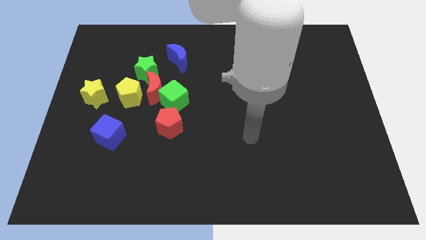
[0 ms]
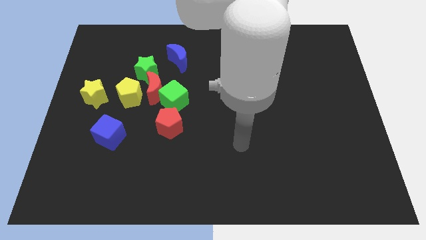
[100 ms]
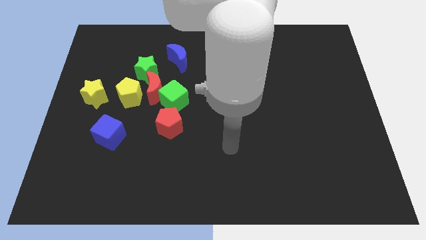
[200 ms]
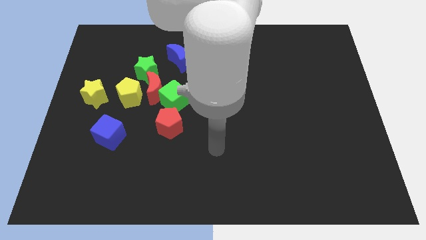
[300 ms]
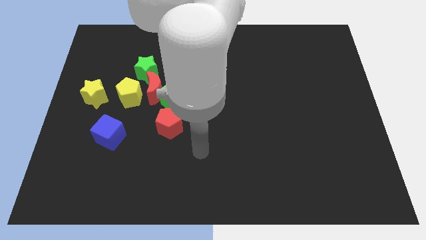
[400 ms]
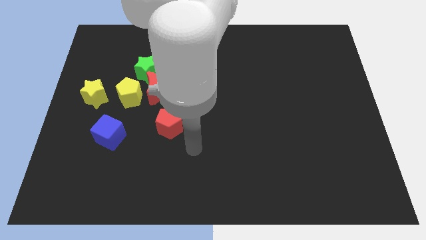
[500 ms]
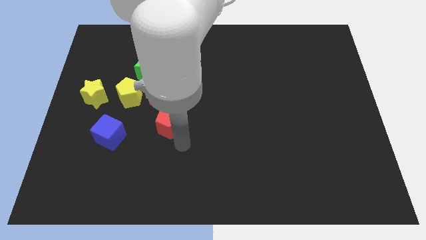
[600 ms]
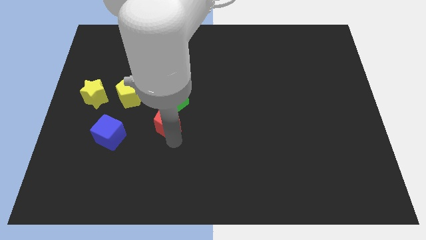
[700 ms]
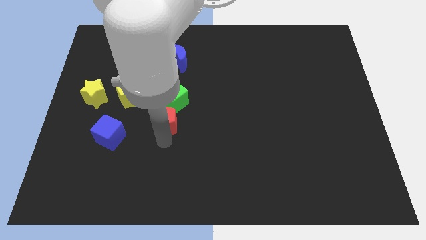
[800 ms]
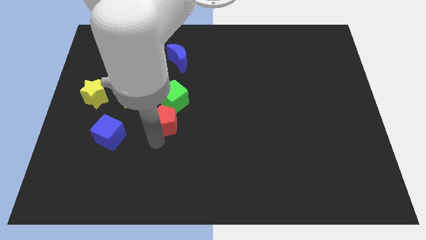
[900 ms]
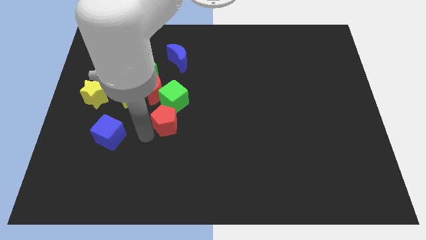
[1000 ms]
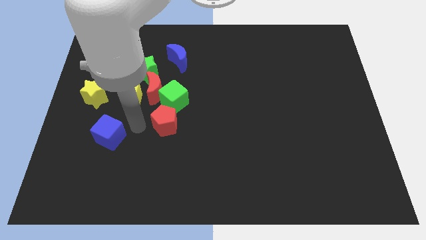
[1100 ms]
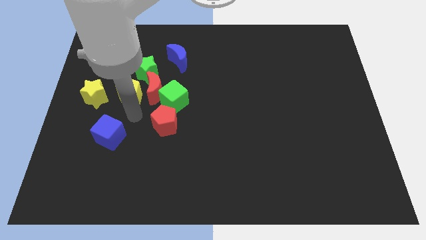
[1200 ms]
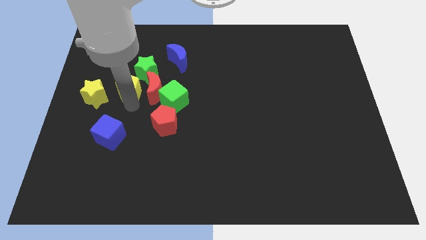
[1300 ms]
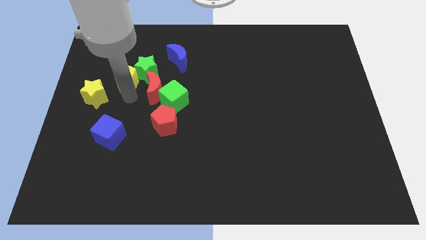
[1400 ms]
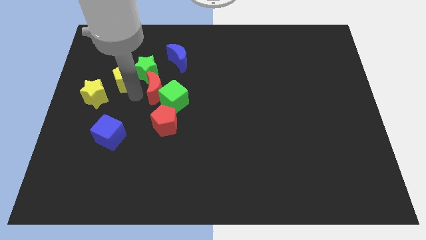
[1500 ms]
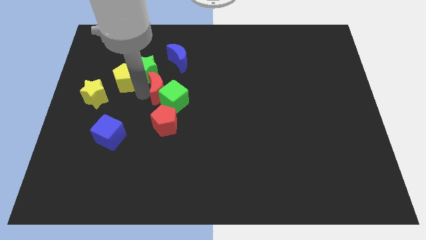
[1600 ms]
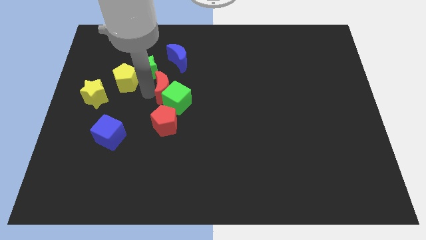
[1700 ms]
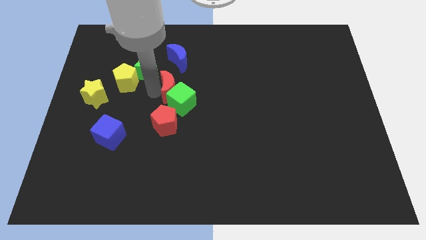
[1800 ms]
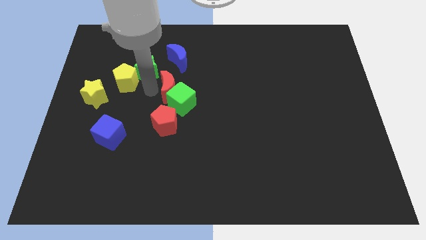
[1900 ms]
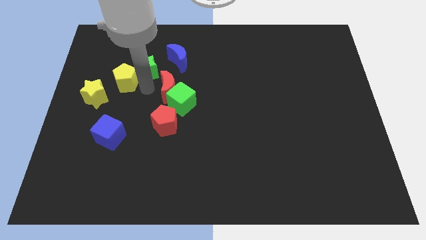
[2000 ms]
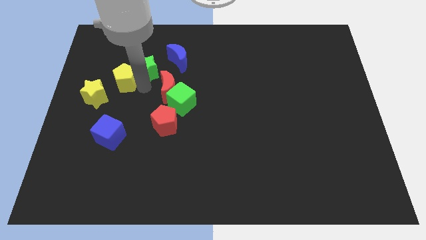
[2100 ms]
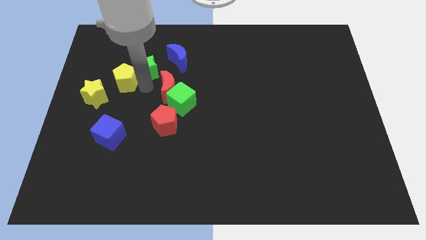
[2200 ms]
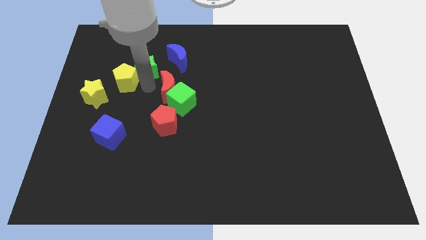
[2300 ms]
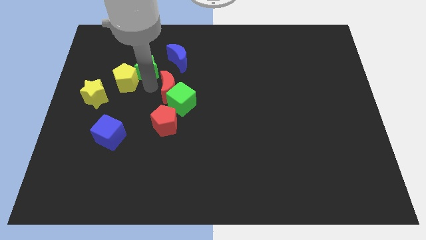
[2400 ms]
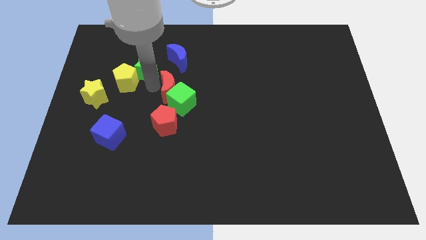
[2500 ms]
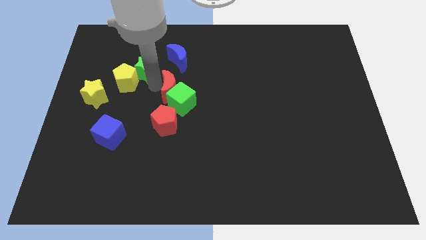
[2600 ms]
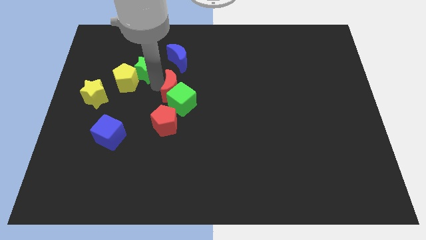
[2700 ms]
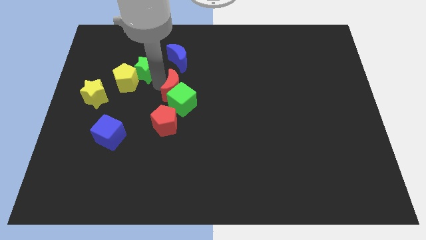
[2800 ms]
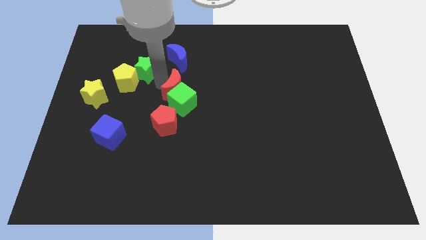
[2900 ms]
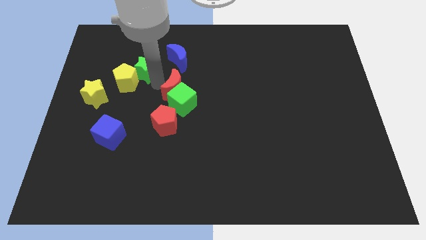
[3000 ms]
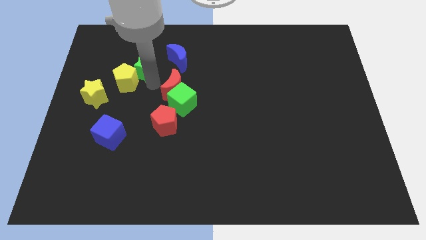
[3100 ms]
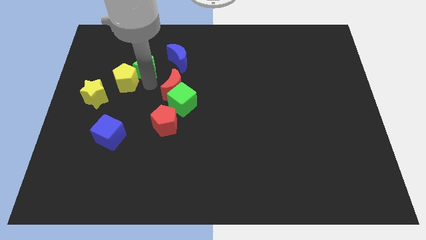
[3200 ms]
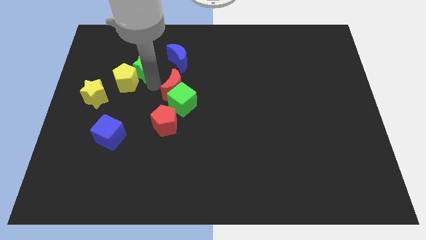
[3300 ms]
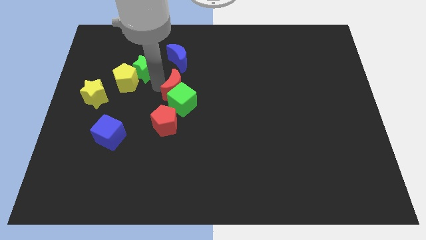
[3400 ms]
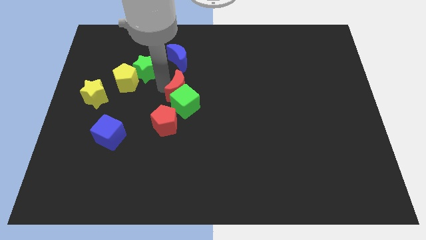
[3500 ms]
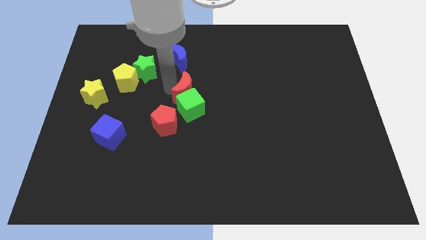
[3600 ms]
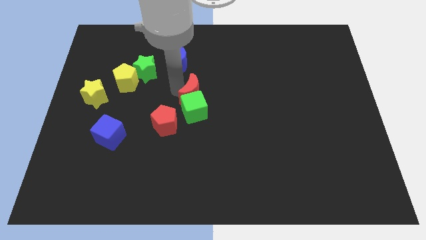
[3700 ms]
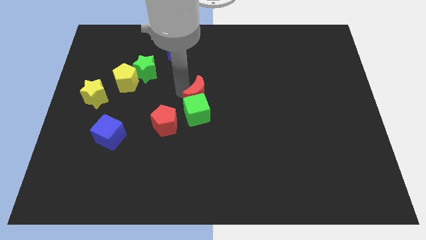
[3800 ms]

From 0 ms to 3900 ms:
move the red moon away from the group of blocks

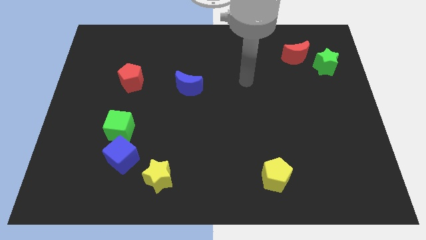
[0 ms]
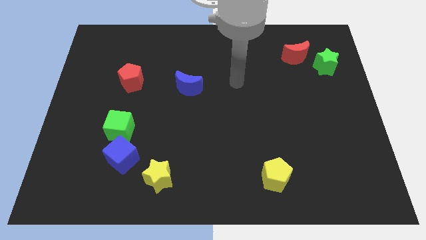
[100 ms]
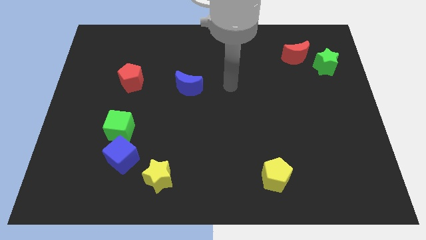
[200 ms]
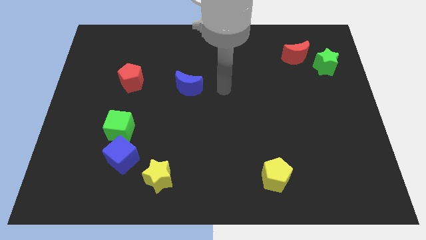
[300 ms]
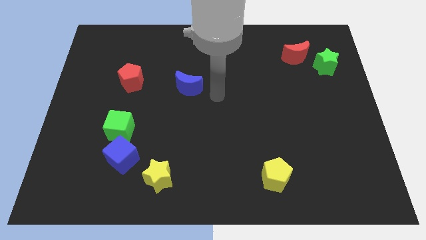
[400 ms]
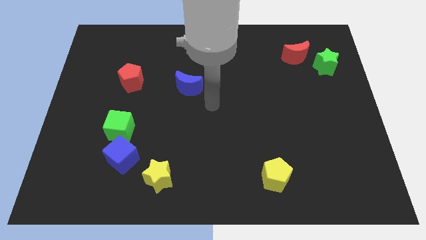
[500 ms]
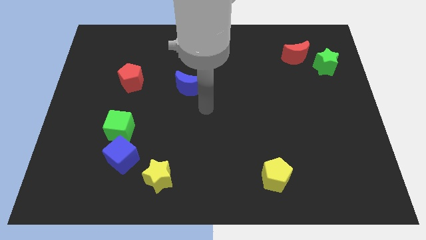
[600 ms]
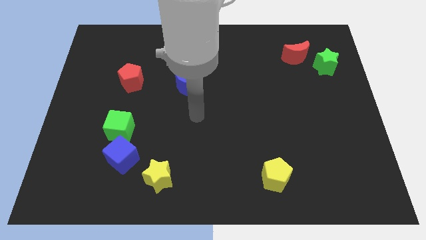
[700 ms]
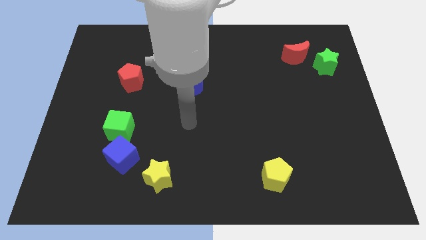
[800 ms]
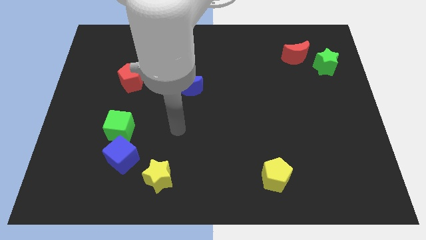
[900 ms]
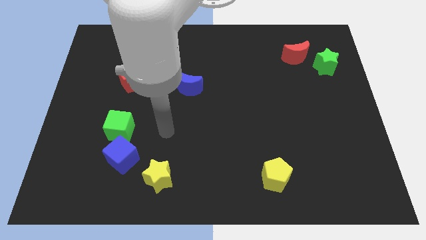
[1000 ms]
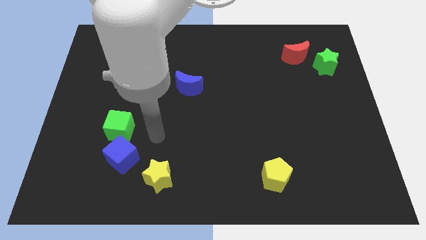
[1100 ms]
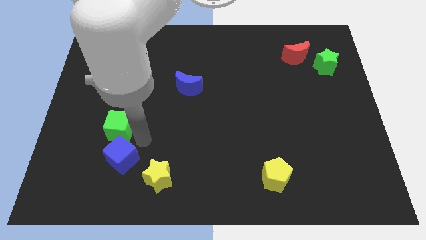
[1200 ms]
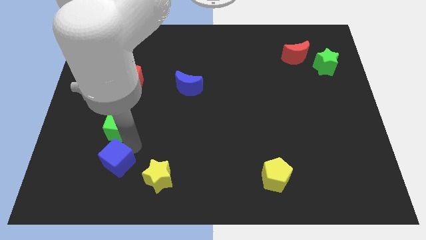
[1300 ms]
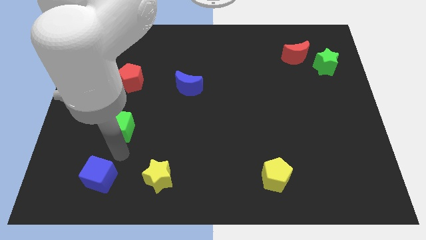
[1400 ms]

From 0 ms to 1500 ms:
separate the green cube from the blue cube

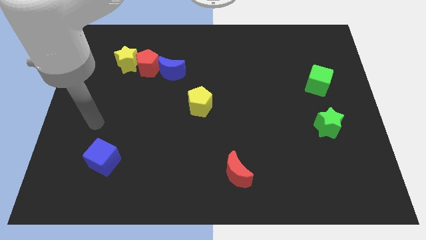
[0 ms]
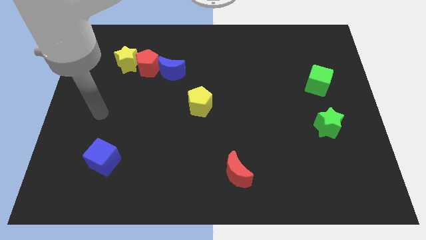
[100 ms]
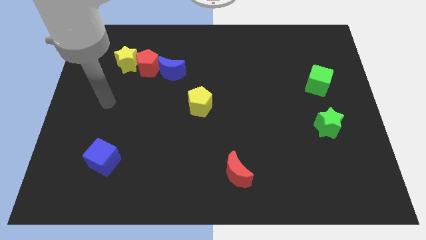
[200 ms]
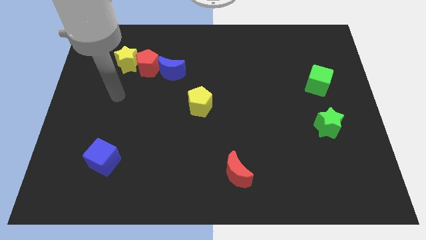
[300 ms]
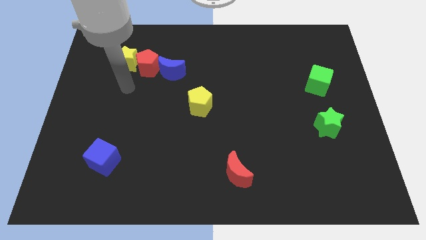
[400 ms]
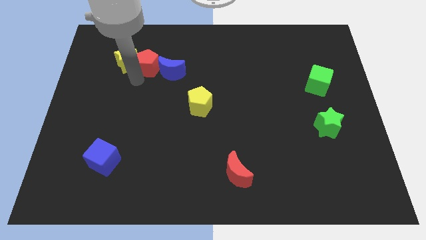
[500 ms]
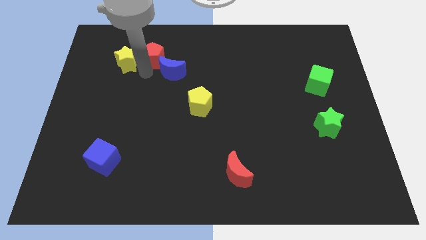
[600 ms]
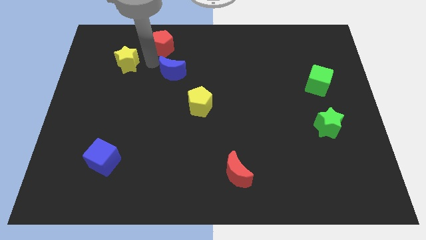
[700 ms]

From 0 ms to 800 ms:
move the yellow star away from the red pentagon

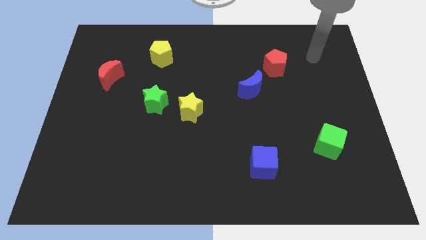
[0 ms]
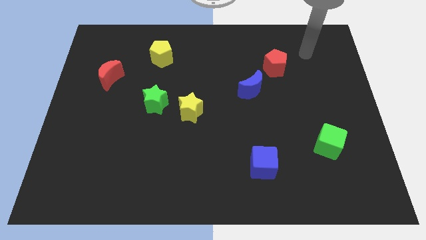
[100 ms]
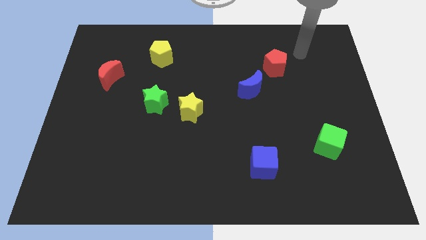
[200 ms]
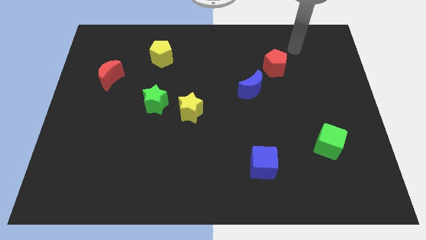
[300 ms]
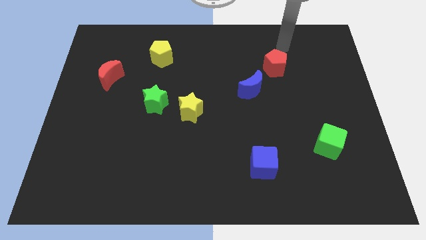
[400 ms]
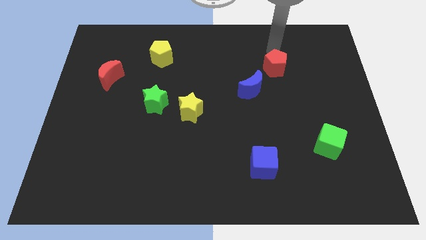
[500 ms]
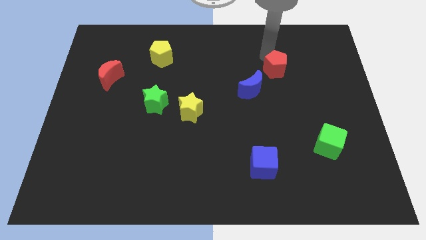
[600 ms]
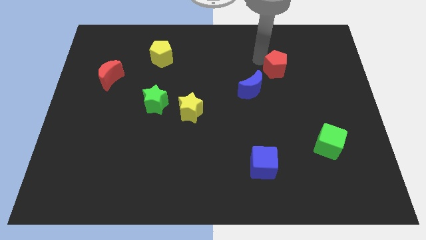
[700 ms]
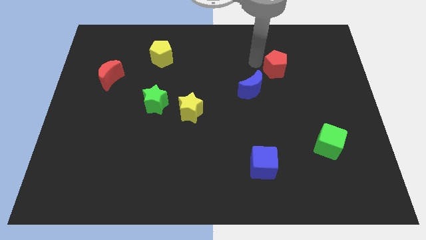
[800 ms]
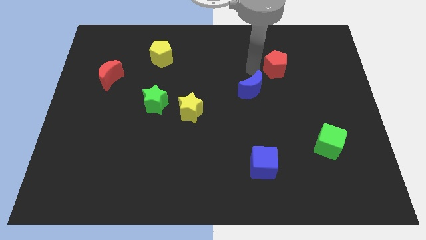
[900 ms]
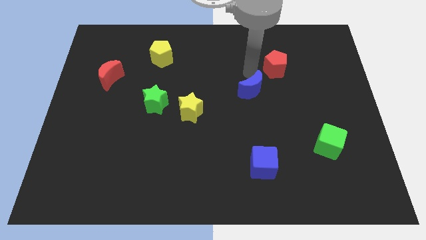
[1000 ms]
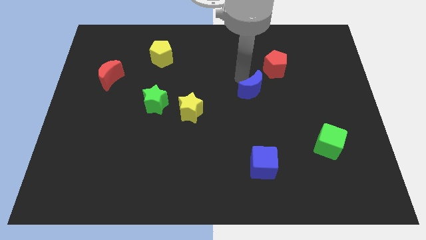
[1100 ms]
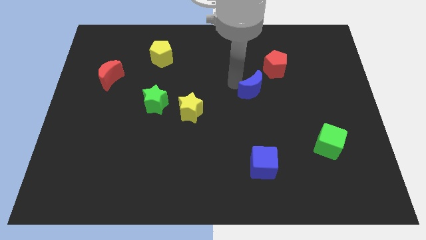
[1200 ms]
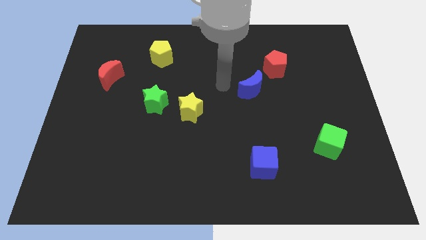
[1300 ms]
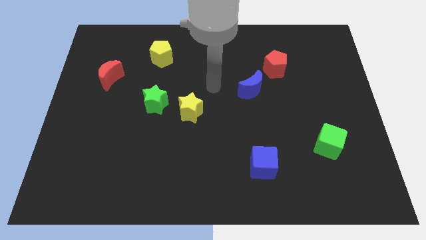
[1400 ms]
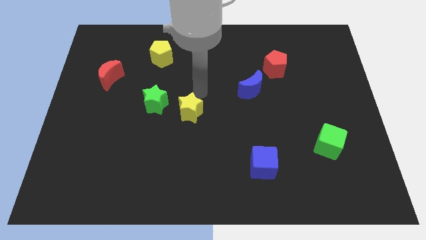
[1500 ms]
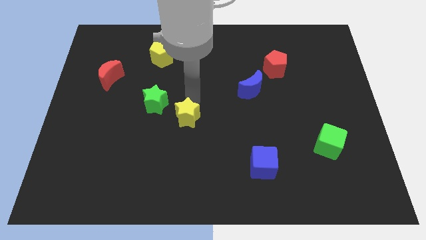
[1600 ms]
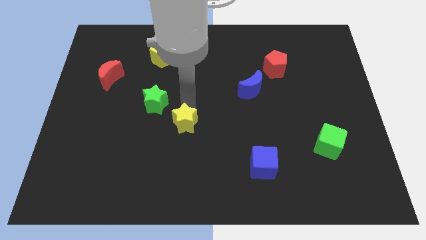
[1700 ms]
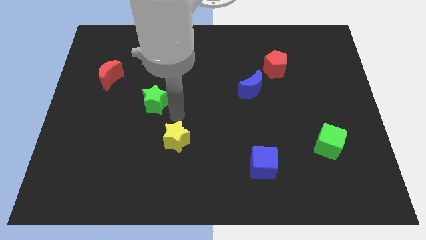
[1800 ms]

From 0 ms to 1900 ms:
separate the green star from the yellow star

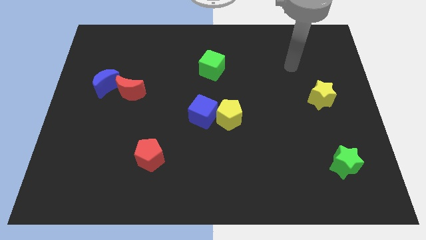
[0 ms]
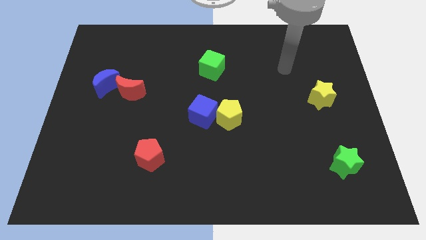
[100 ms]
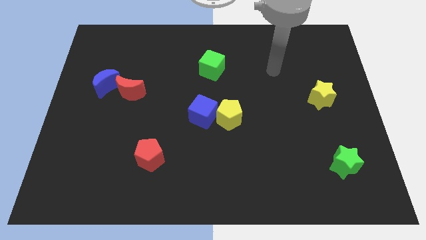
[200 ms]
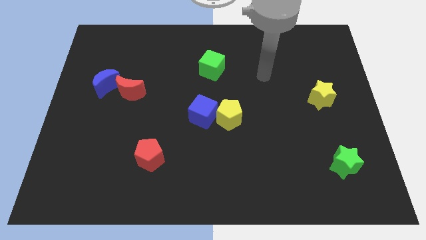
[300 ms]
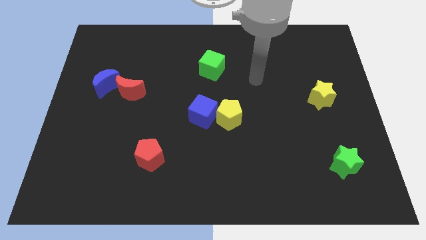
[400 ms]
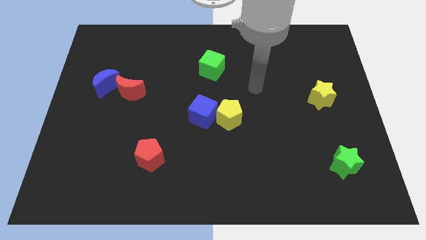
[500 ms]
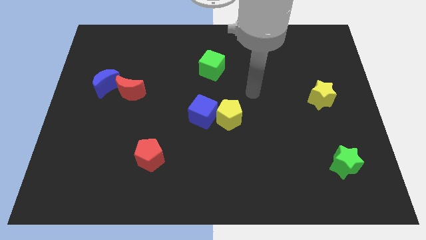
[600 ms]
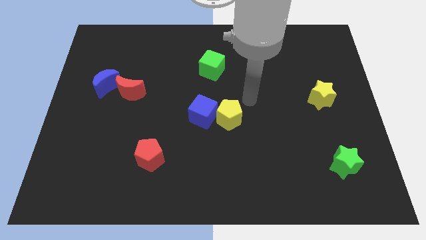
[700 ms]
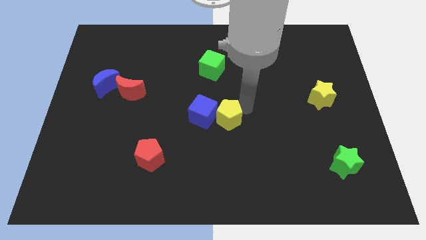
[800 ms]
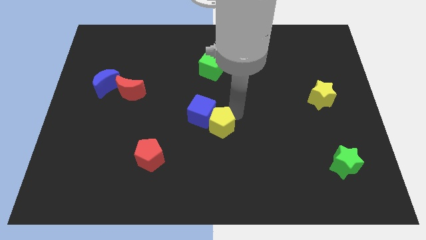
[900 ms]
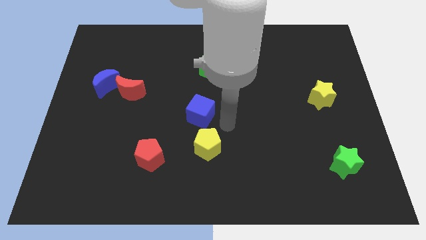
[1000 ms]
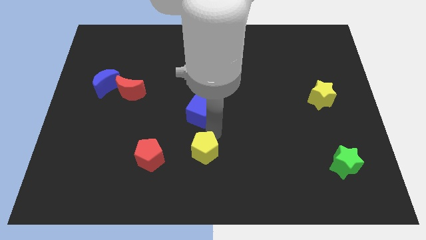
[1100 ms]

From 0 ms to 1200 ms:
separate the blue cube from the yellow pentagon

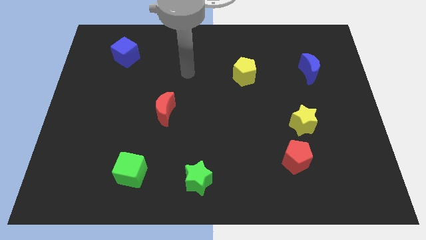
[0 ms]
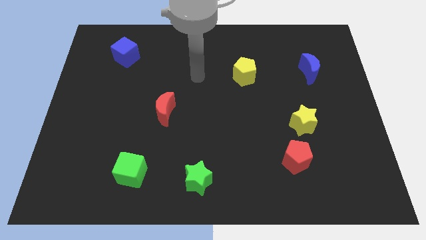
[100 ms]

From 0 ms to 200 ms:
separate the red pentagon from the yellow star
